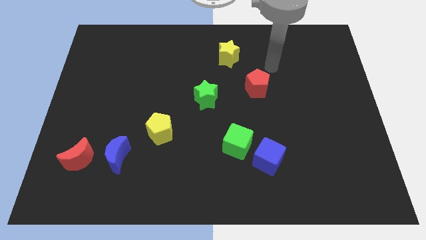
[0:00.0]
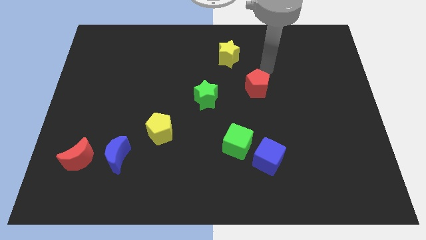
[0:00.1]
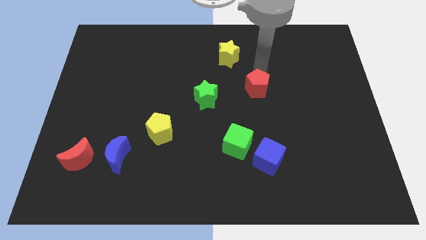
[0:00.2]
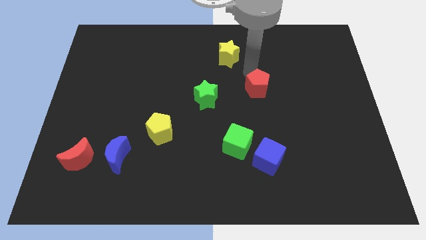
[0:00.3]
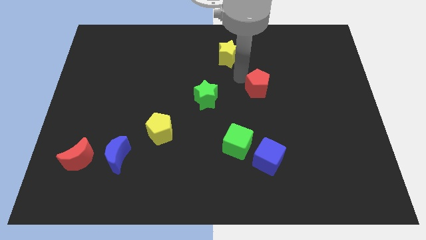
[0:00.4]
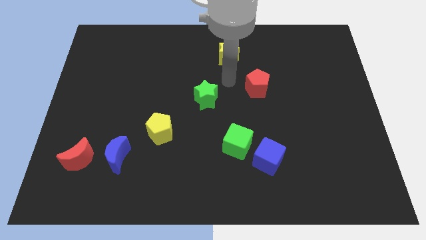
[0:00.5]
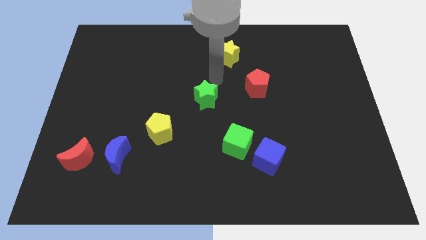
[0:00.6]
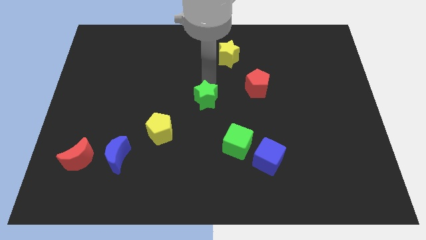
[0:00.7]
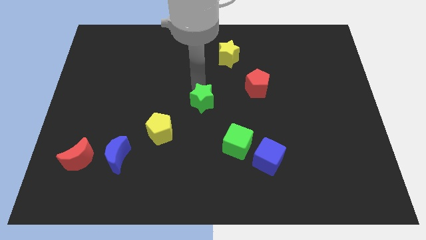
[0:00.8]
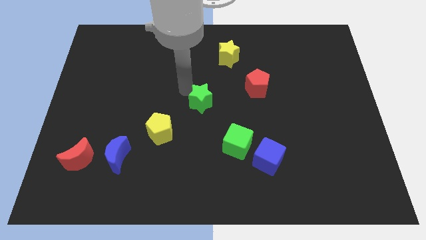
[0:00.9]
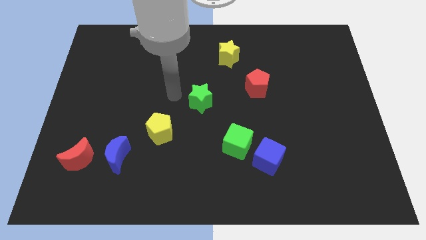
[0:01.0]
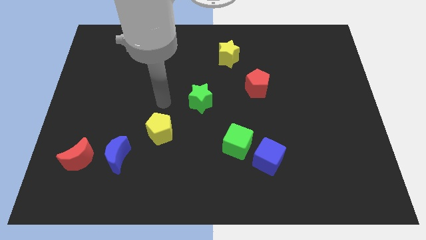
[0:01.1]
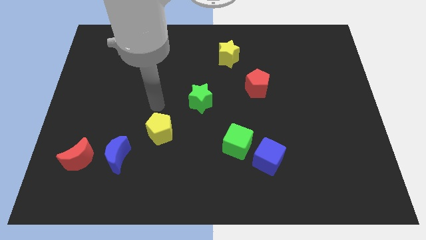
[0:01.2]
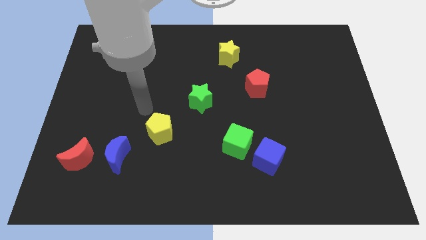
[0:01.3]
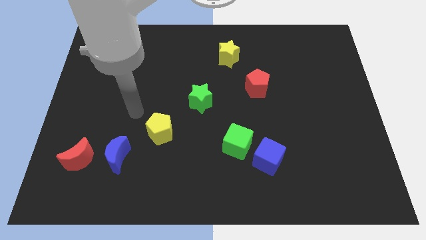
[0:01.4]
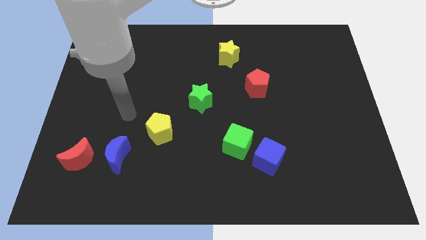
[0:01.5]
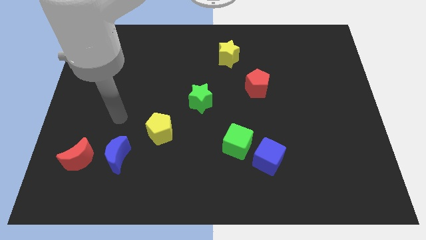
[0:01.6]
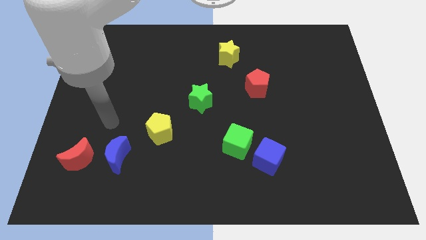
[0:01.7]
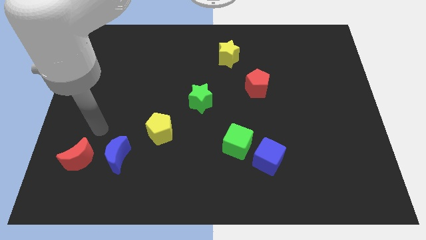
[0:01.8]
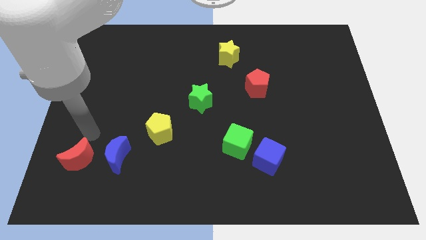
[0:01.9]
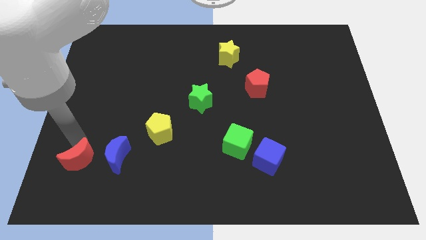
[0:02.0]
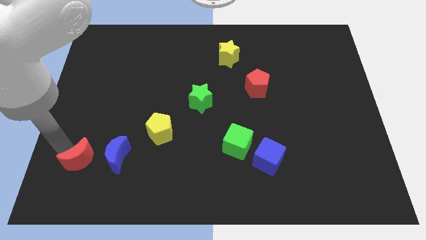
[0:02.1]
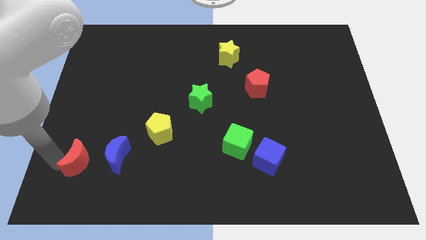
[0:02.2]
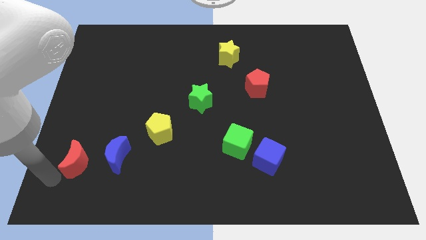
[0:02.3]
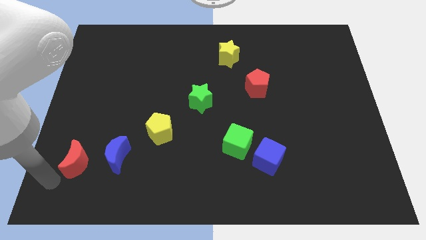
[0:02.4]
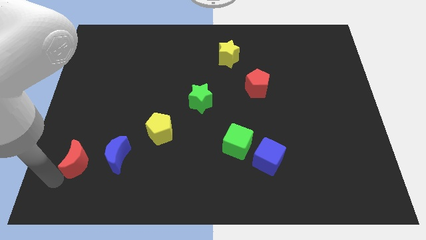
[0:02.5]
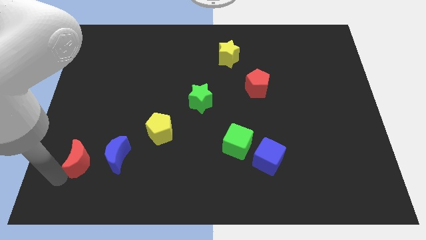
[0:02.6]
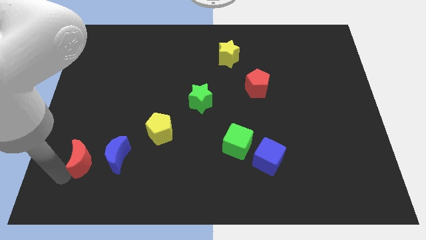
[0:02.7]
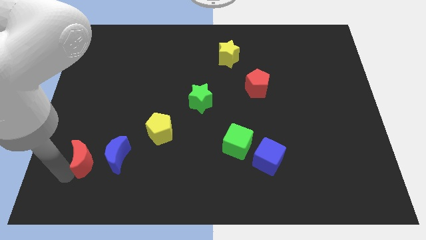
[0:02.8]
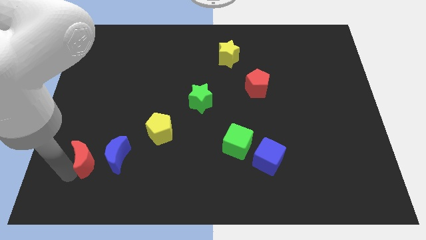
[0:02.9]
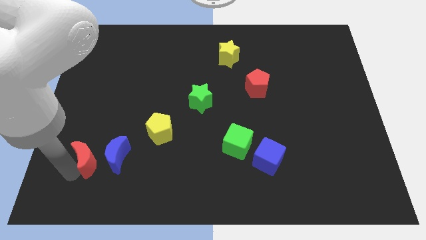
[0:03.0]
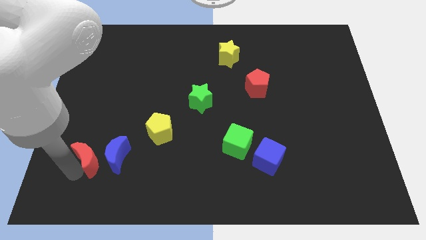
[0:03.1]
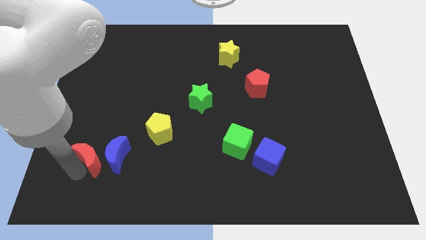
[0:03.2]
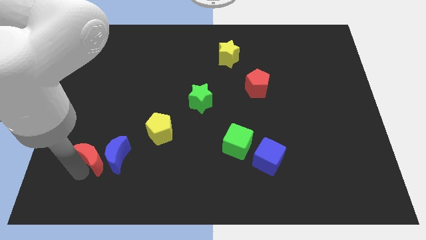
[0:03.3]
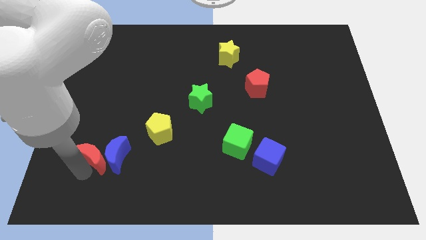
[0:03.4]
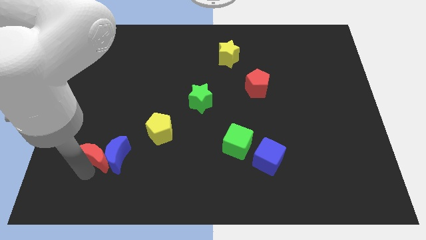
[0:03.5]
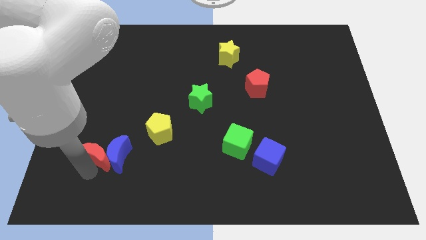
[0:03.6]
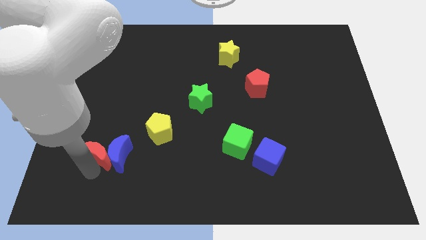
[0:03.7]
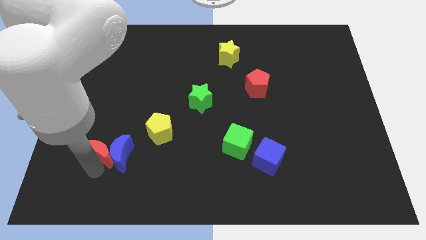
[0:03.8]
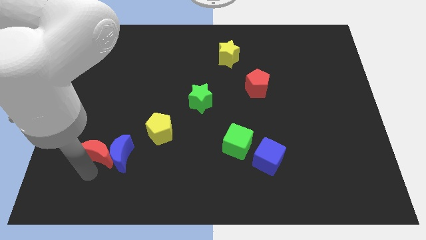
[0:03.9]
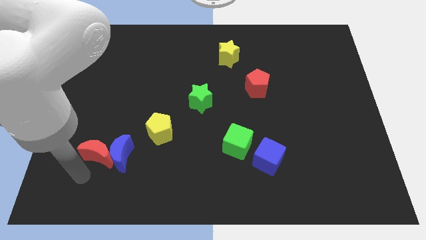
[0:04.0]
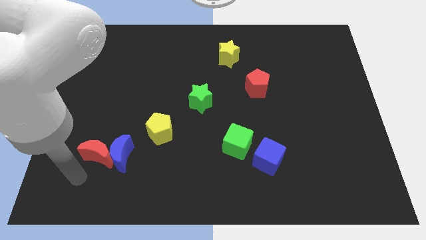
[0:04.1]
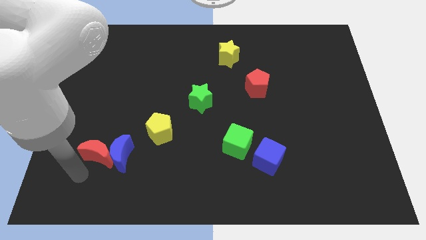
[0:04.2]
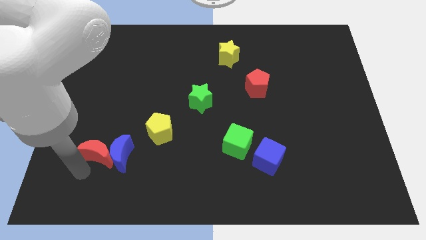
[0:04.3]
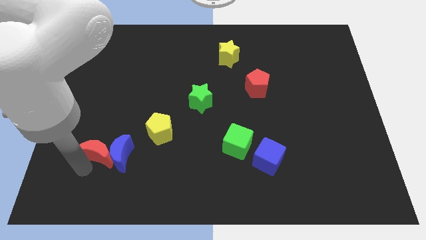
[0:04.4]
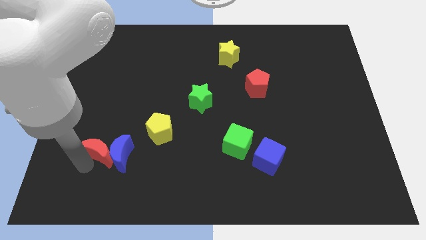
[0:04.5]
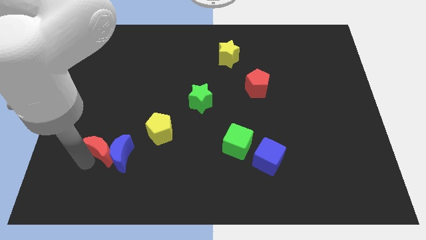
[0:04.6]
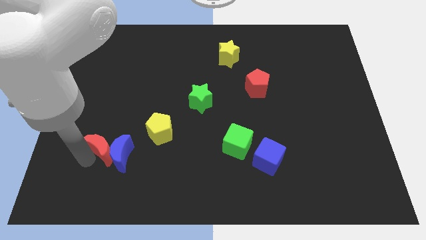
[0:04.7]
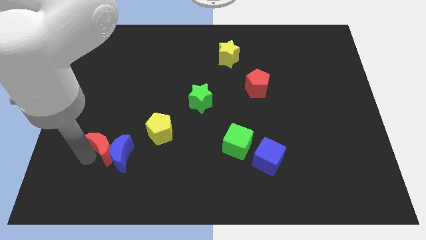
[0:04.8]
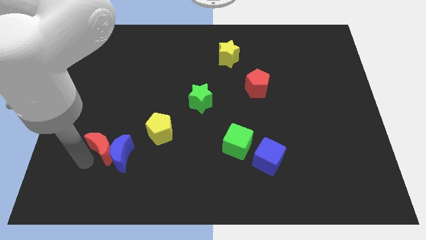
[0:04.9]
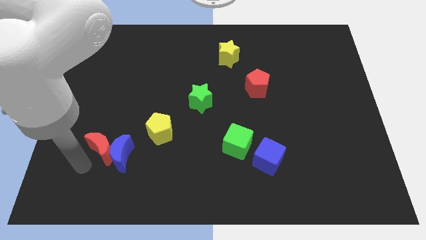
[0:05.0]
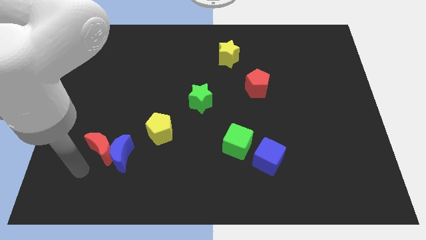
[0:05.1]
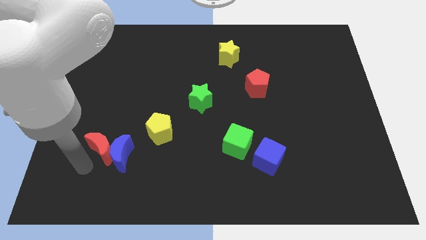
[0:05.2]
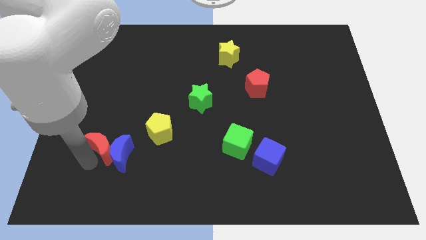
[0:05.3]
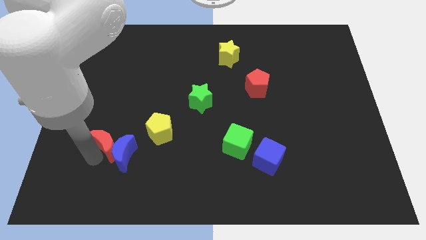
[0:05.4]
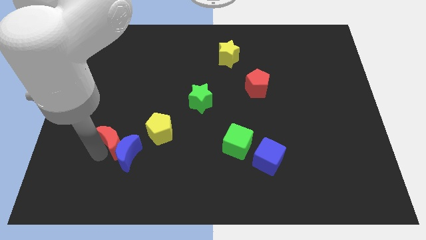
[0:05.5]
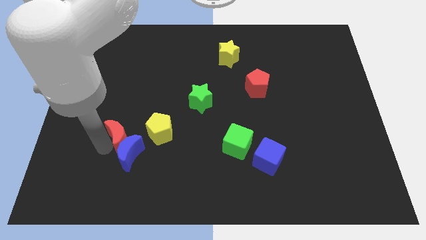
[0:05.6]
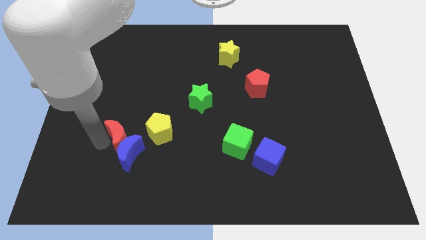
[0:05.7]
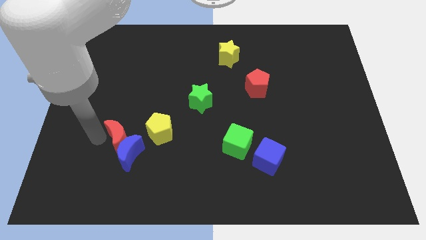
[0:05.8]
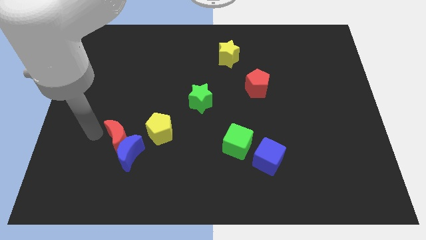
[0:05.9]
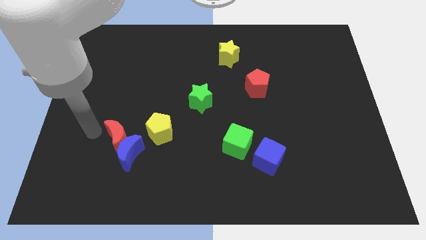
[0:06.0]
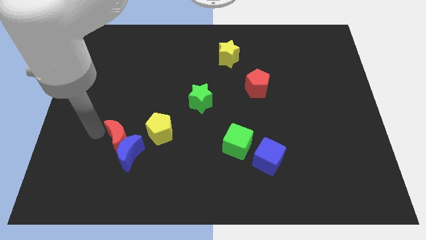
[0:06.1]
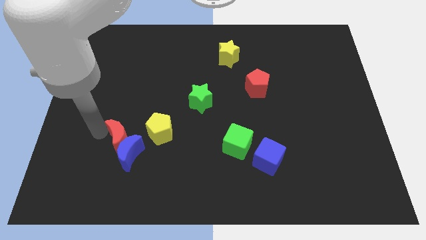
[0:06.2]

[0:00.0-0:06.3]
slightly slide the red moon right

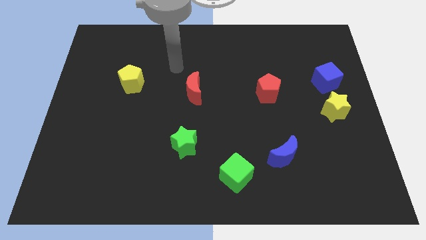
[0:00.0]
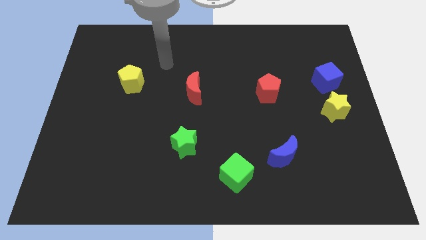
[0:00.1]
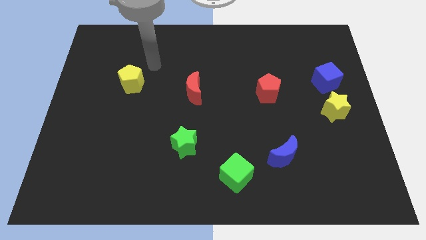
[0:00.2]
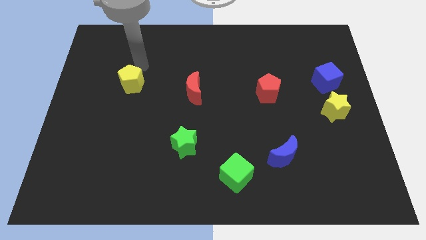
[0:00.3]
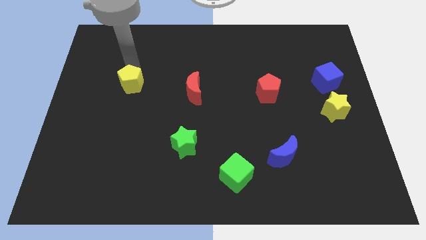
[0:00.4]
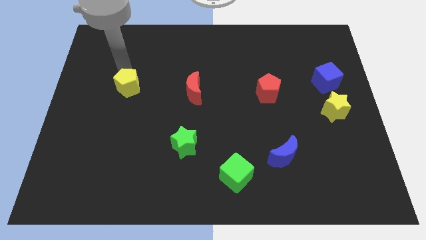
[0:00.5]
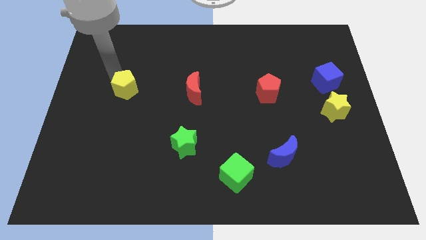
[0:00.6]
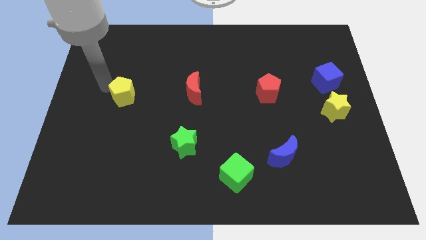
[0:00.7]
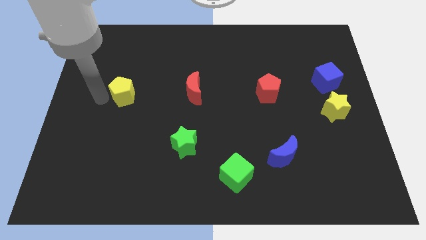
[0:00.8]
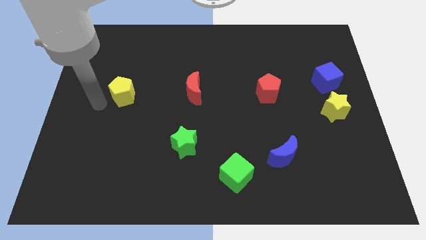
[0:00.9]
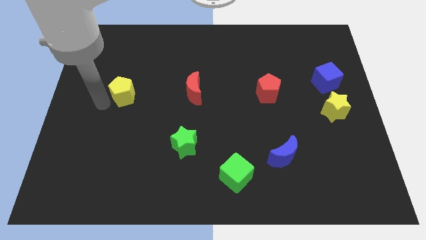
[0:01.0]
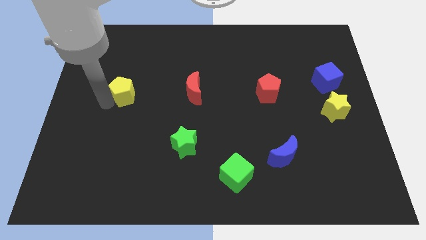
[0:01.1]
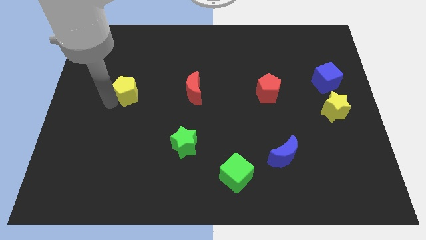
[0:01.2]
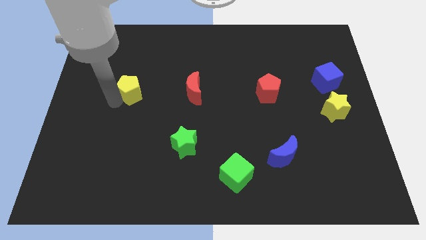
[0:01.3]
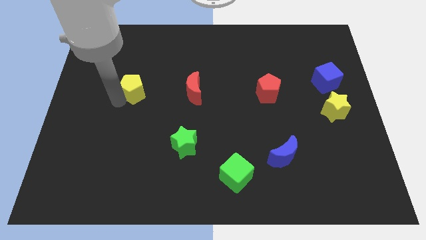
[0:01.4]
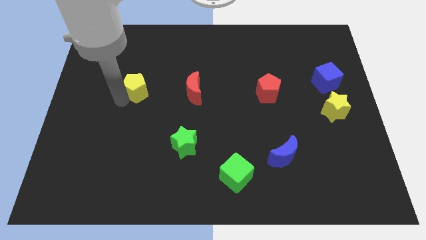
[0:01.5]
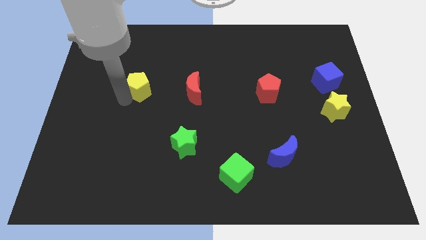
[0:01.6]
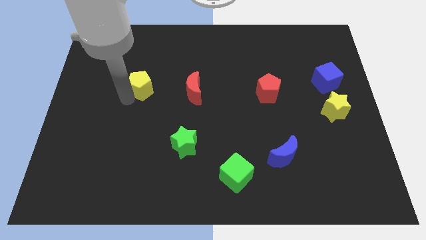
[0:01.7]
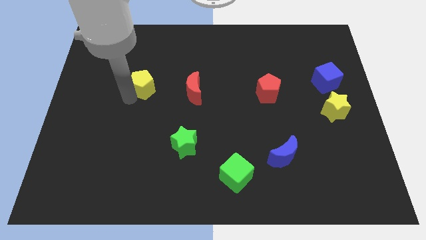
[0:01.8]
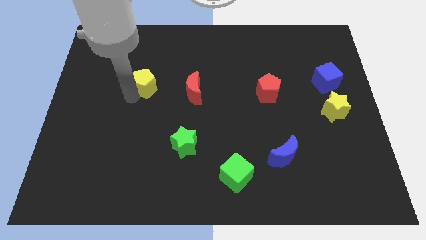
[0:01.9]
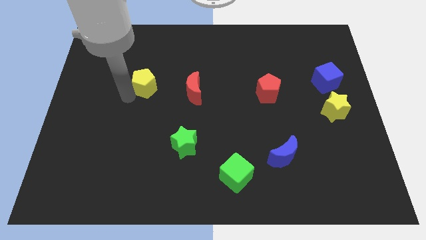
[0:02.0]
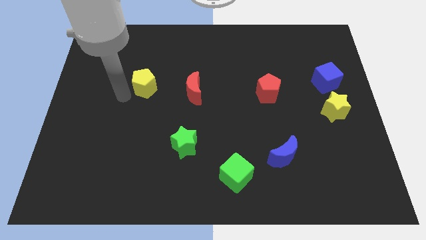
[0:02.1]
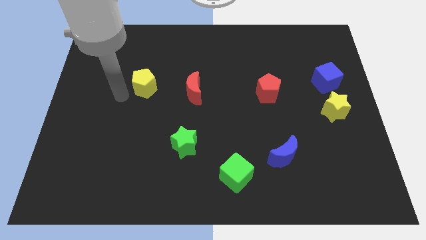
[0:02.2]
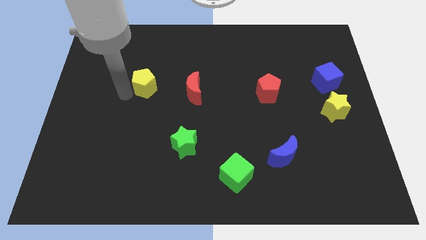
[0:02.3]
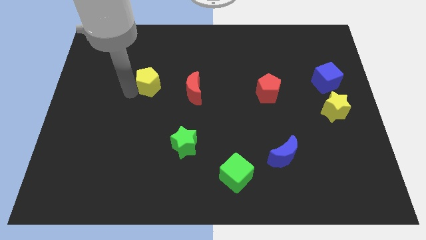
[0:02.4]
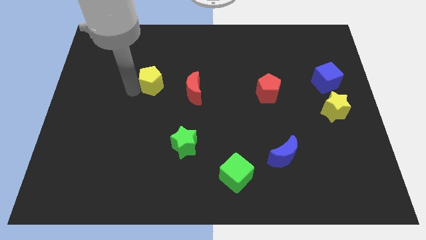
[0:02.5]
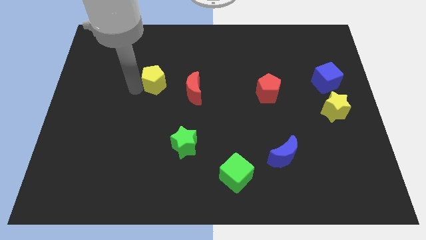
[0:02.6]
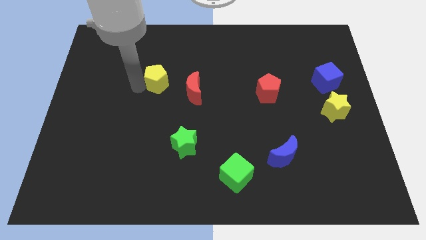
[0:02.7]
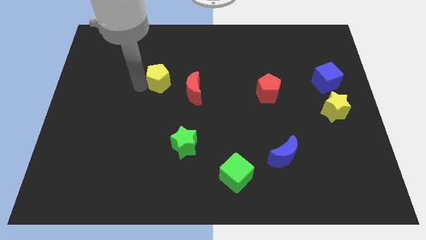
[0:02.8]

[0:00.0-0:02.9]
push the yellow pentagon somewhat right
